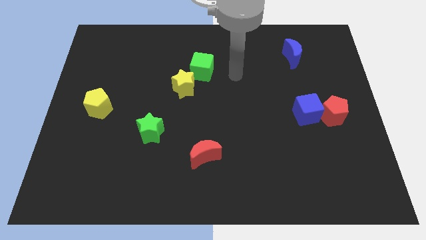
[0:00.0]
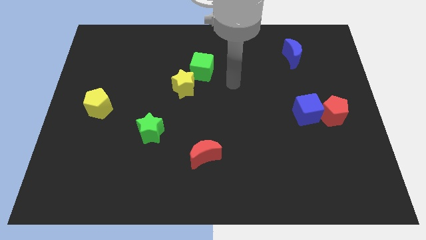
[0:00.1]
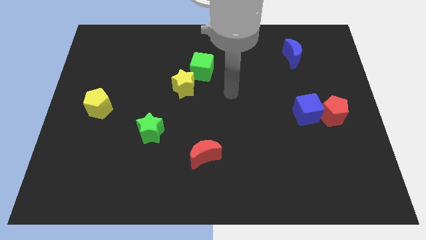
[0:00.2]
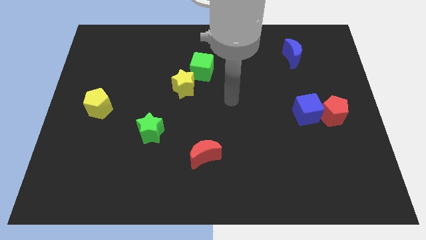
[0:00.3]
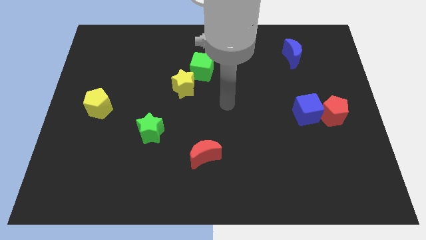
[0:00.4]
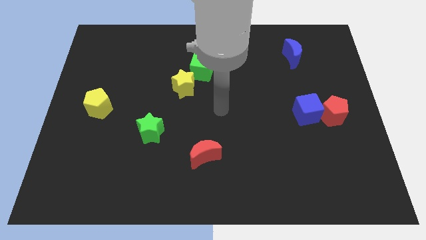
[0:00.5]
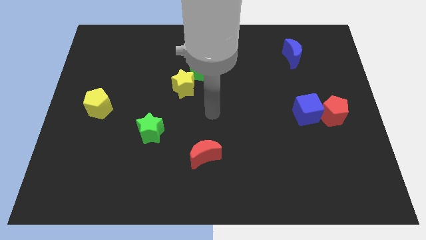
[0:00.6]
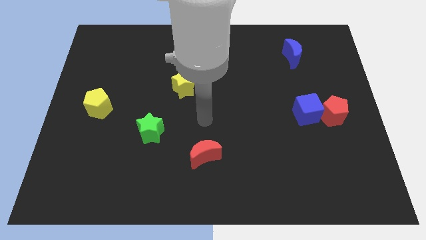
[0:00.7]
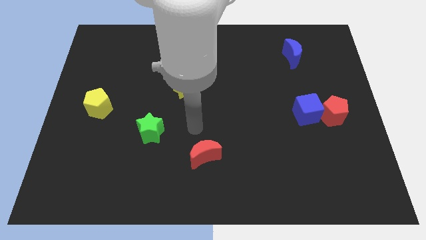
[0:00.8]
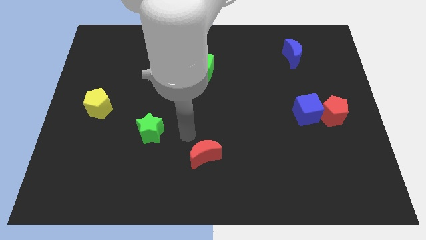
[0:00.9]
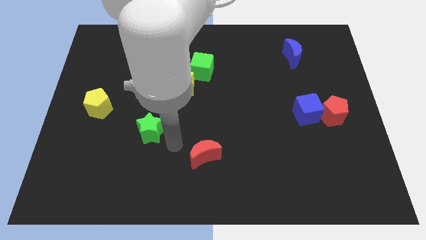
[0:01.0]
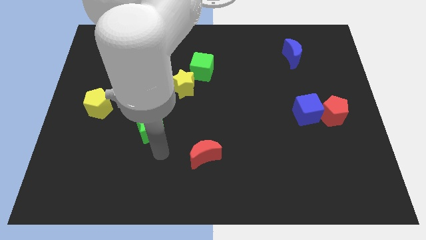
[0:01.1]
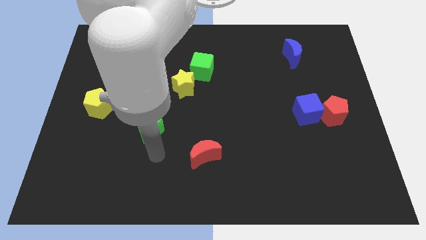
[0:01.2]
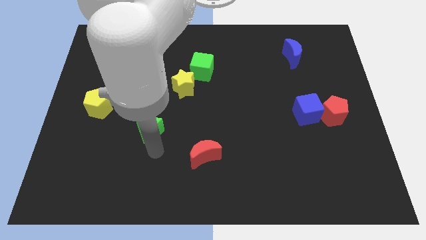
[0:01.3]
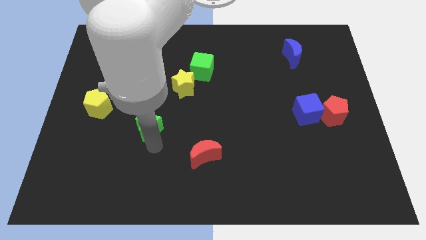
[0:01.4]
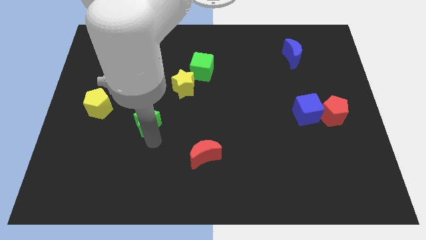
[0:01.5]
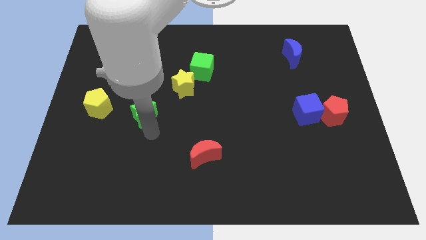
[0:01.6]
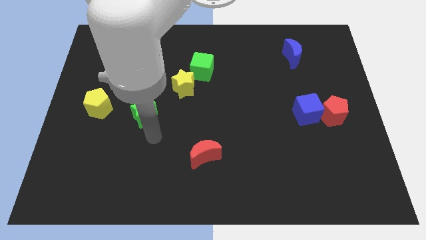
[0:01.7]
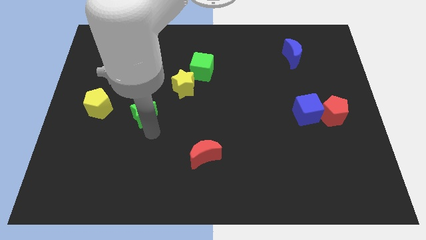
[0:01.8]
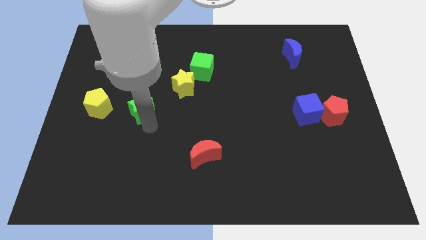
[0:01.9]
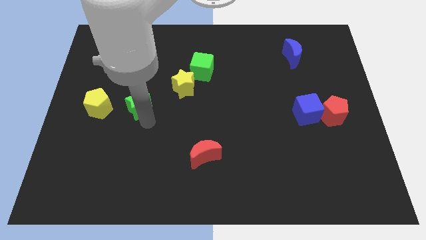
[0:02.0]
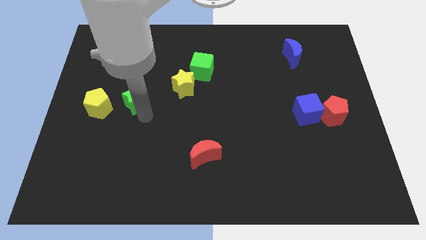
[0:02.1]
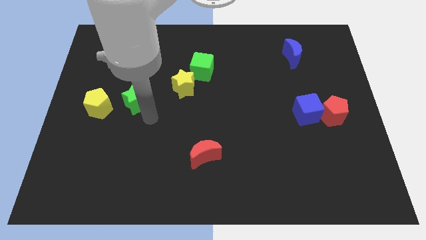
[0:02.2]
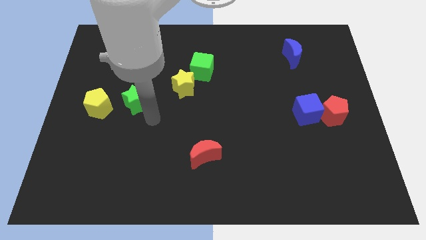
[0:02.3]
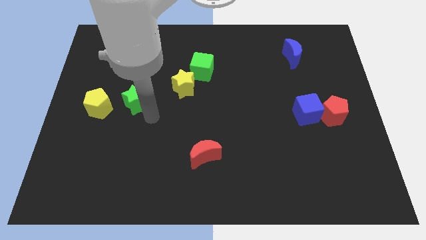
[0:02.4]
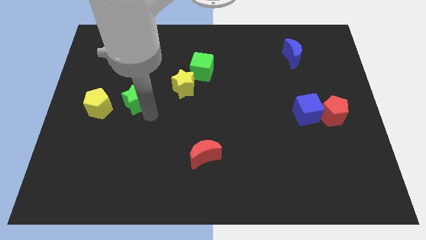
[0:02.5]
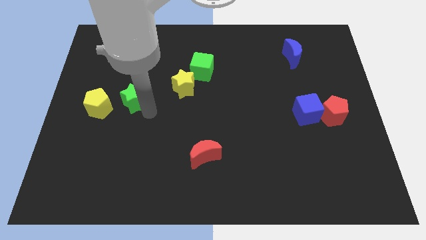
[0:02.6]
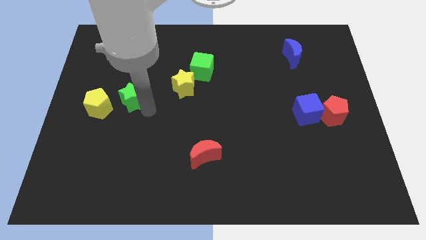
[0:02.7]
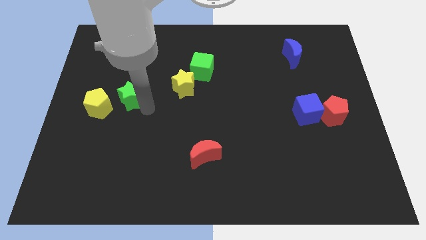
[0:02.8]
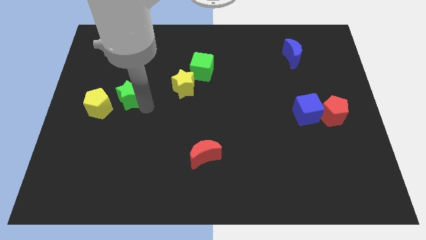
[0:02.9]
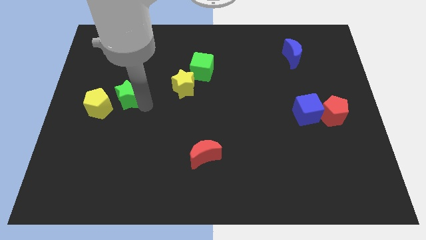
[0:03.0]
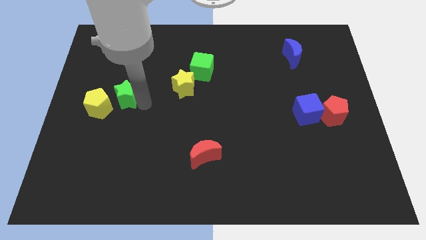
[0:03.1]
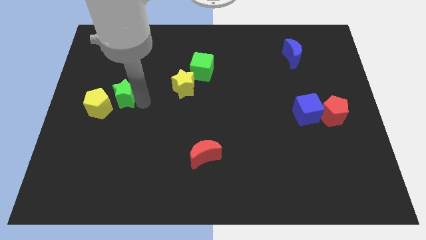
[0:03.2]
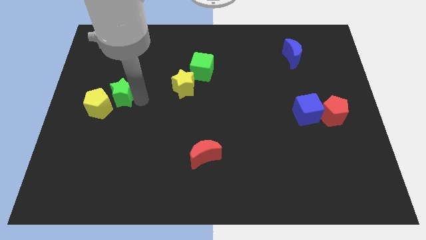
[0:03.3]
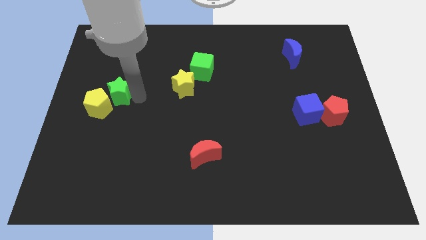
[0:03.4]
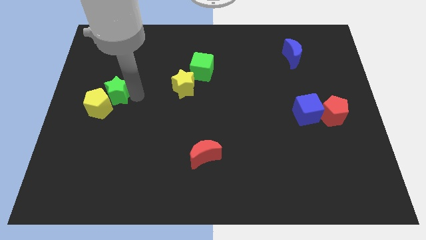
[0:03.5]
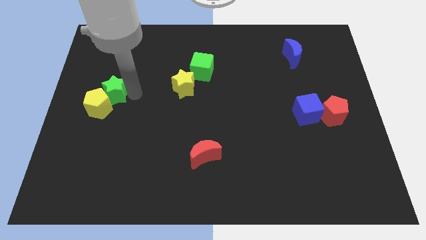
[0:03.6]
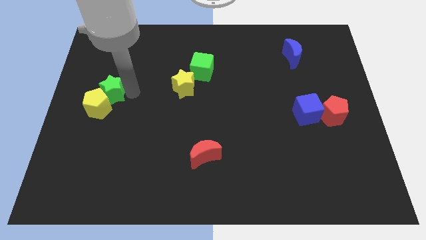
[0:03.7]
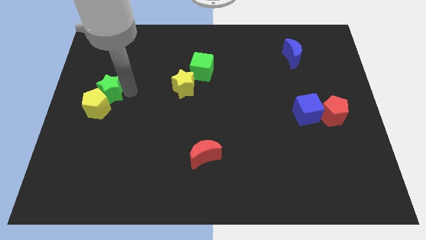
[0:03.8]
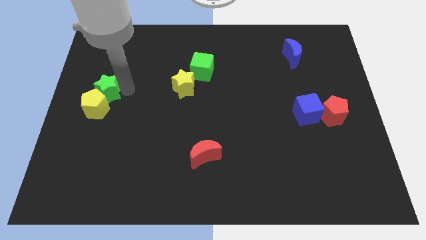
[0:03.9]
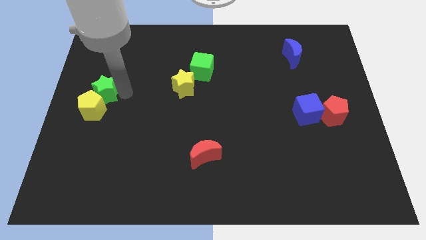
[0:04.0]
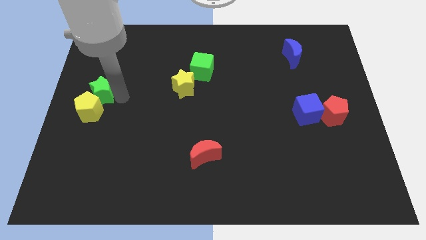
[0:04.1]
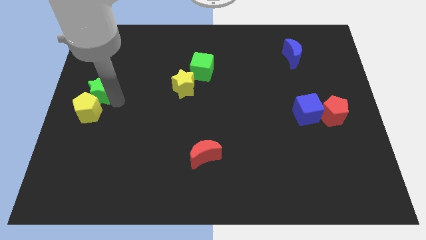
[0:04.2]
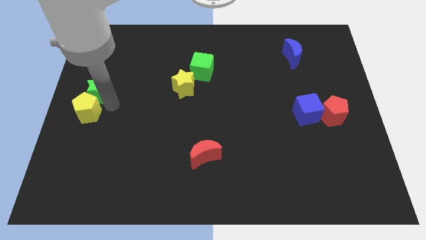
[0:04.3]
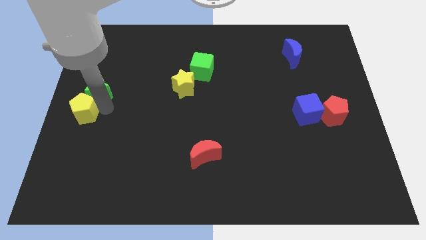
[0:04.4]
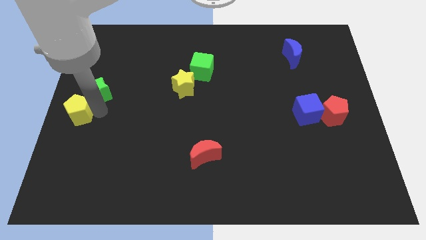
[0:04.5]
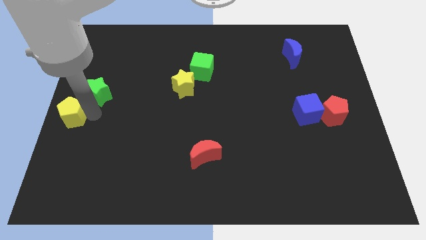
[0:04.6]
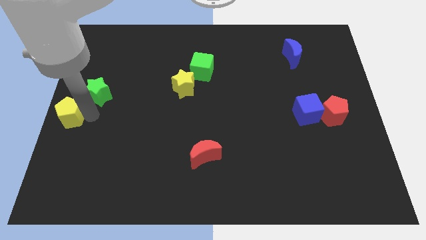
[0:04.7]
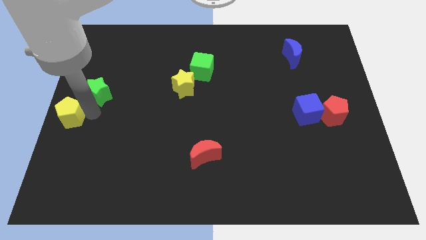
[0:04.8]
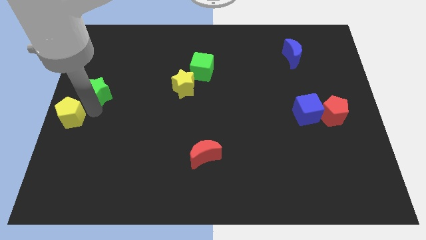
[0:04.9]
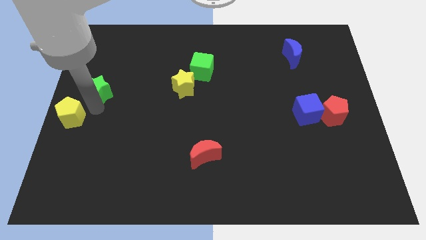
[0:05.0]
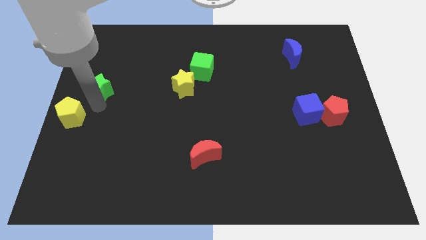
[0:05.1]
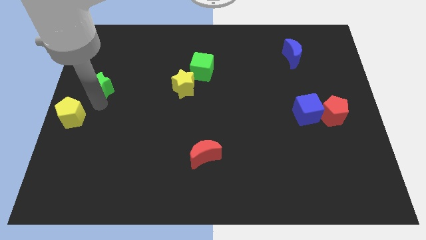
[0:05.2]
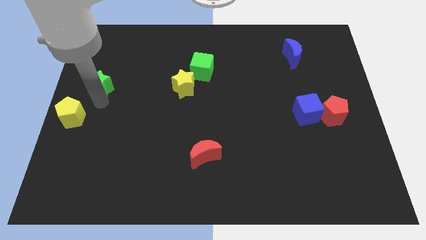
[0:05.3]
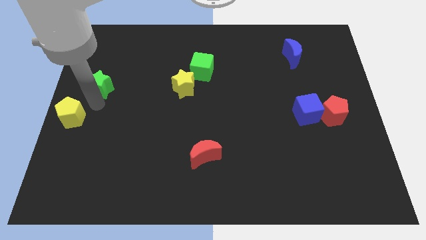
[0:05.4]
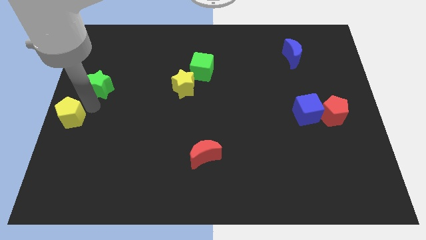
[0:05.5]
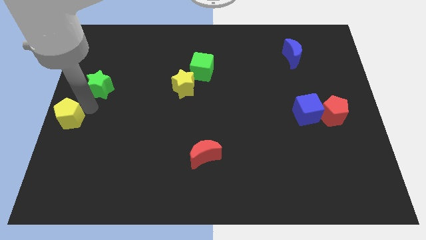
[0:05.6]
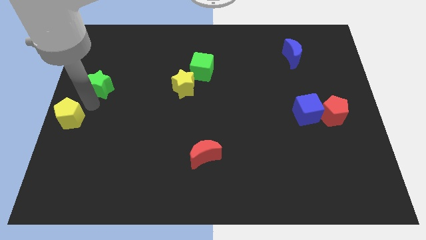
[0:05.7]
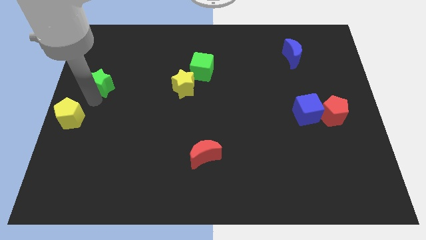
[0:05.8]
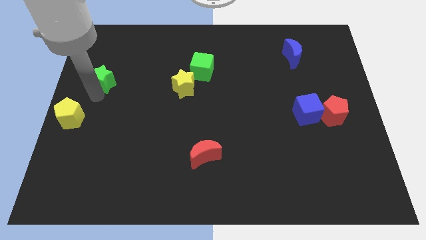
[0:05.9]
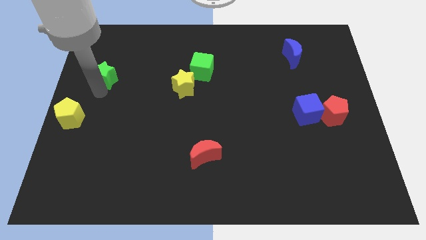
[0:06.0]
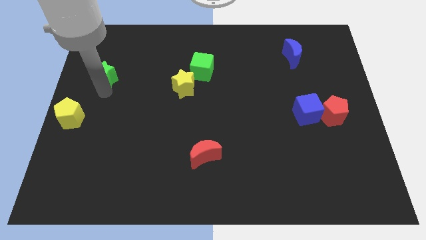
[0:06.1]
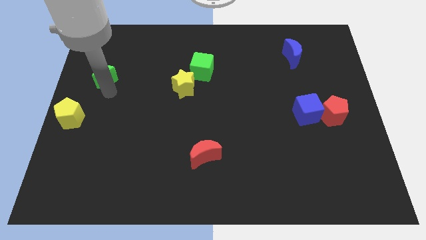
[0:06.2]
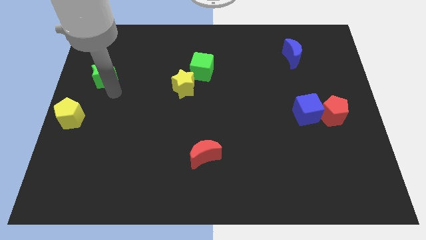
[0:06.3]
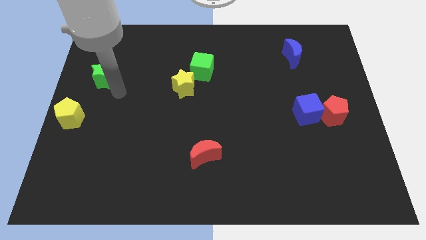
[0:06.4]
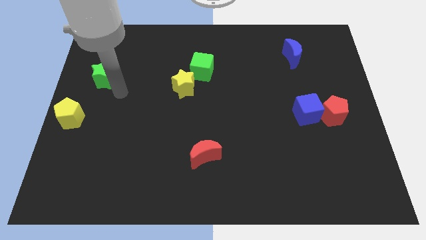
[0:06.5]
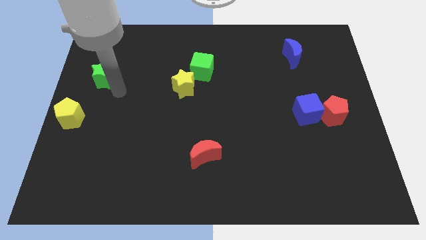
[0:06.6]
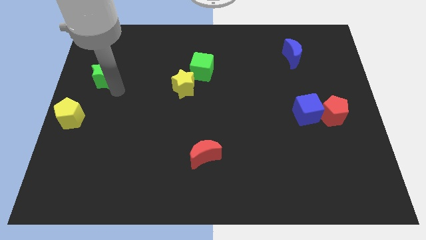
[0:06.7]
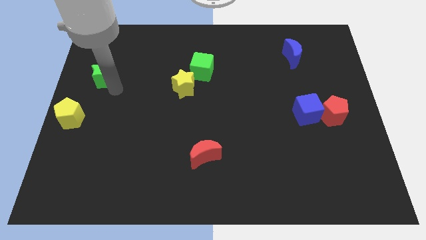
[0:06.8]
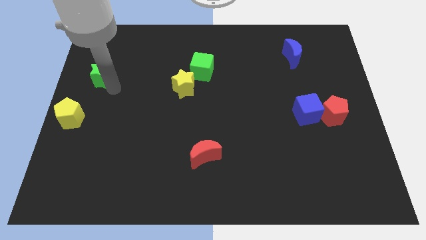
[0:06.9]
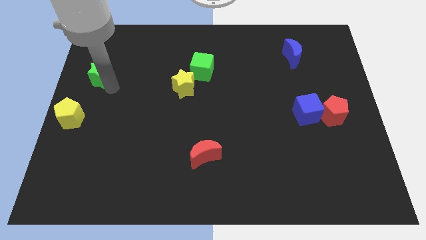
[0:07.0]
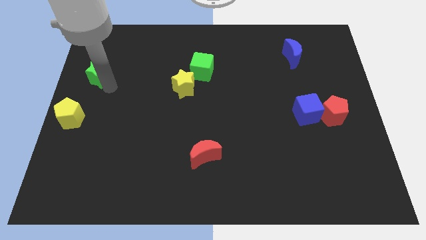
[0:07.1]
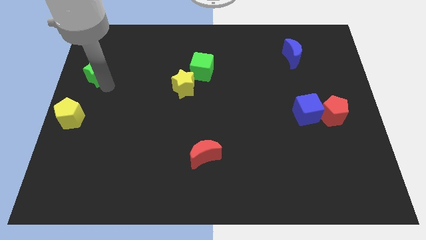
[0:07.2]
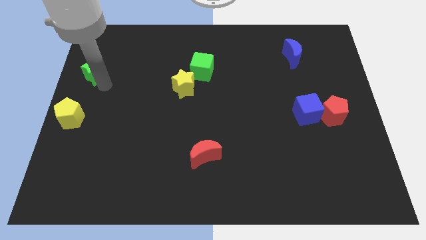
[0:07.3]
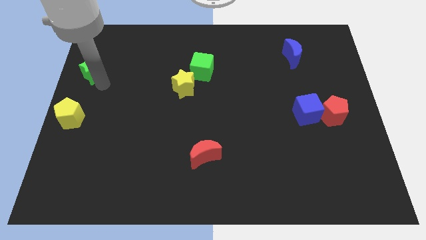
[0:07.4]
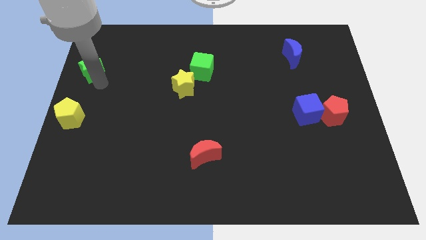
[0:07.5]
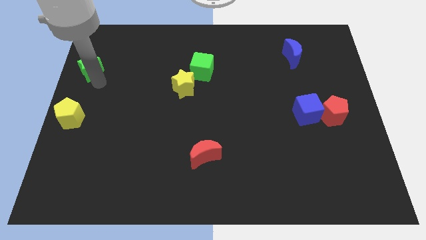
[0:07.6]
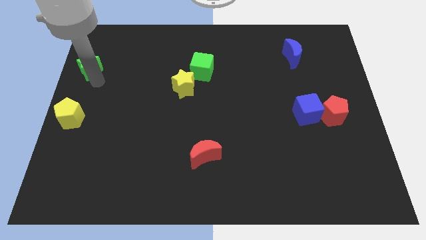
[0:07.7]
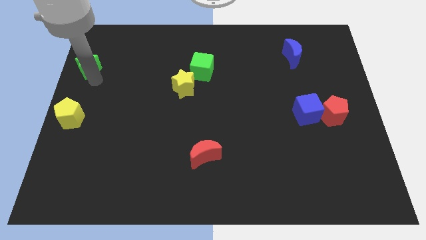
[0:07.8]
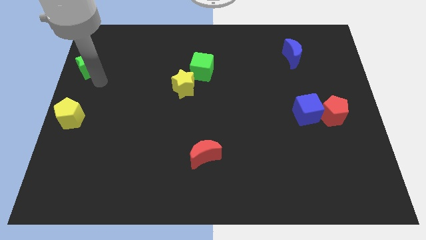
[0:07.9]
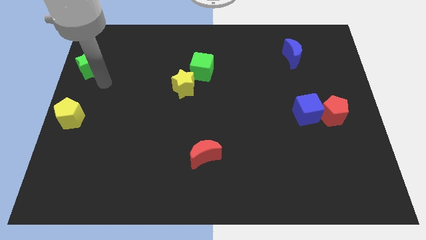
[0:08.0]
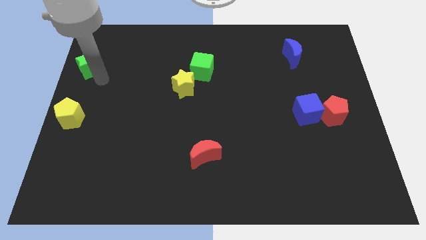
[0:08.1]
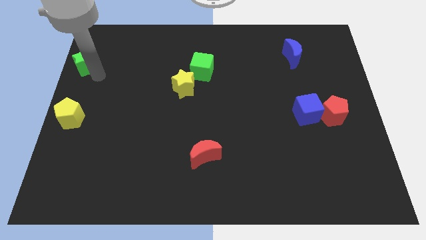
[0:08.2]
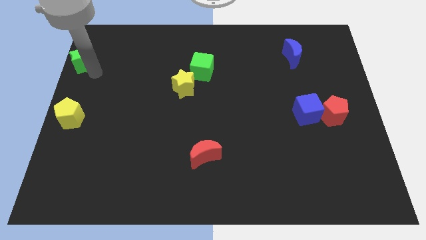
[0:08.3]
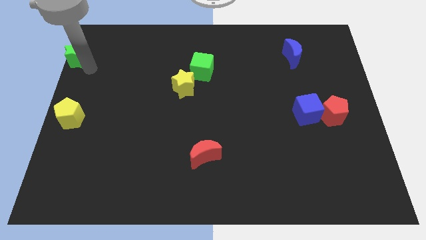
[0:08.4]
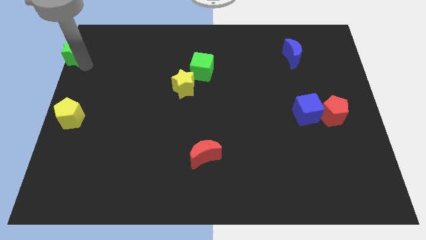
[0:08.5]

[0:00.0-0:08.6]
move the green star to the top left
